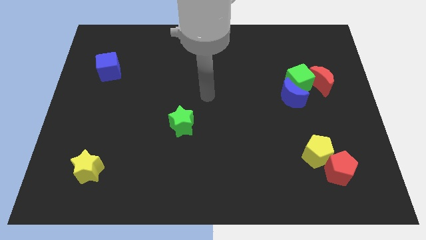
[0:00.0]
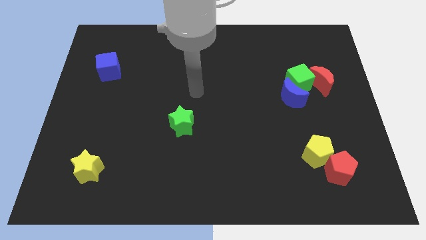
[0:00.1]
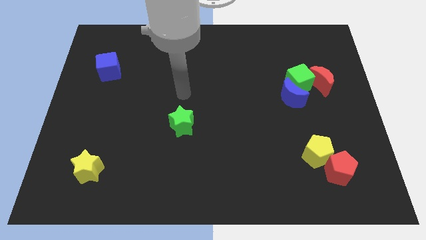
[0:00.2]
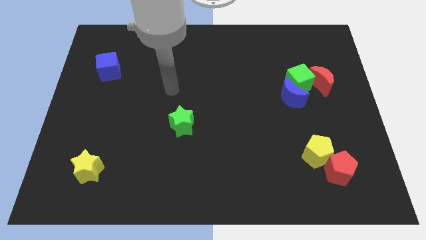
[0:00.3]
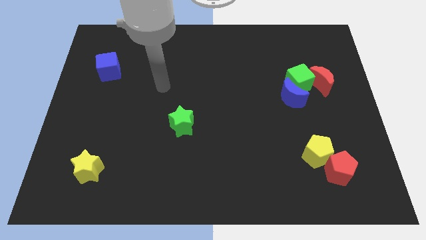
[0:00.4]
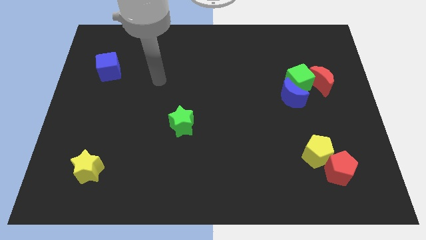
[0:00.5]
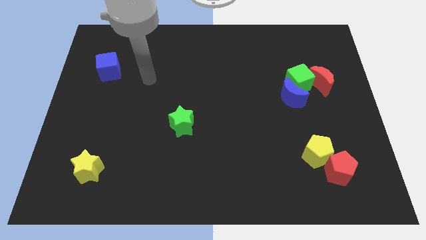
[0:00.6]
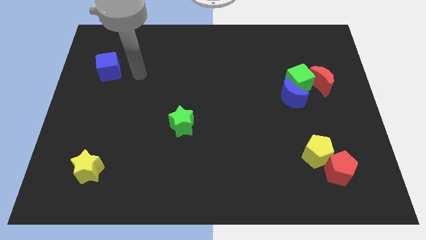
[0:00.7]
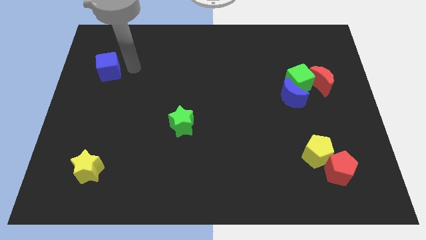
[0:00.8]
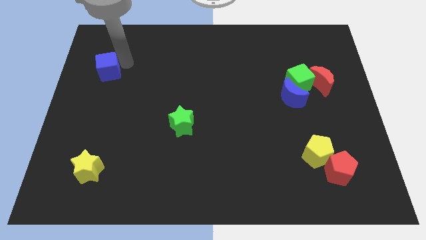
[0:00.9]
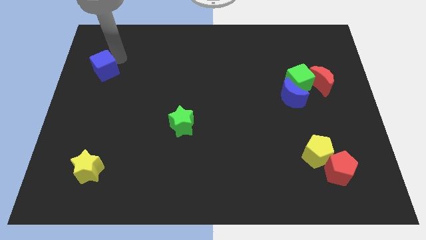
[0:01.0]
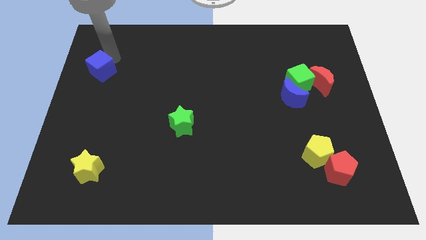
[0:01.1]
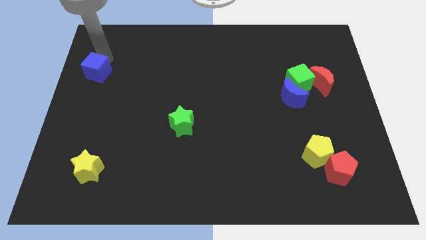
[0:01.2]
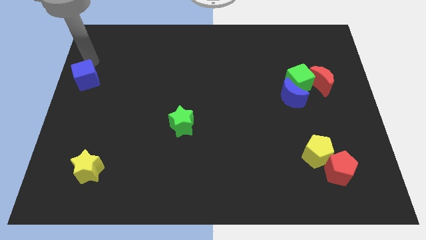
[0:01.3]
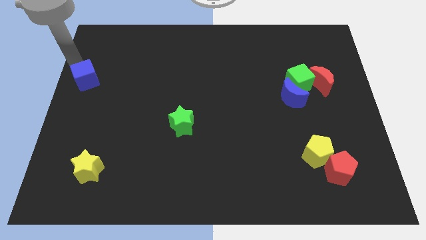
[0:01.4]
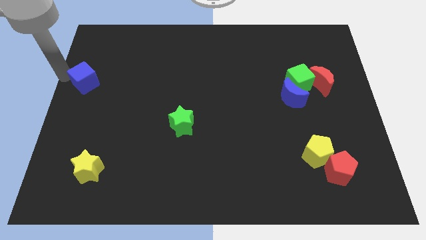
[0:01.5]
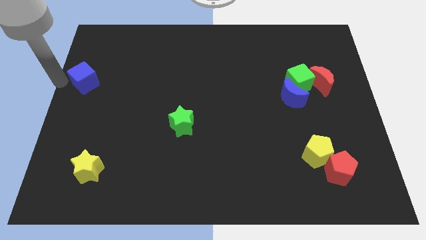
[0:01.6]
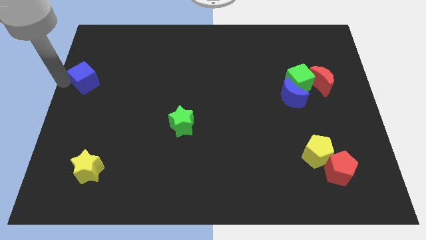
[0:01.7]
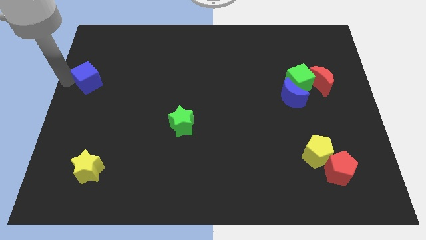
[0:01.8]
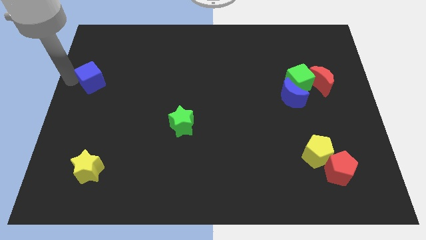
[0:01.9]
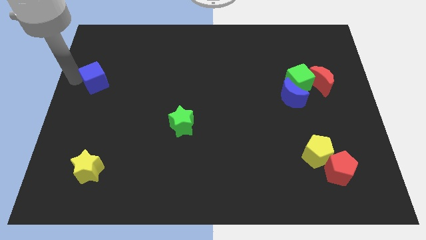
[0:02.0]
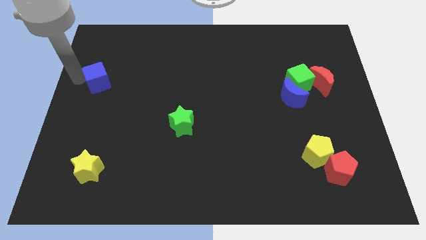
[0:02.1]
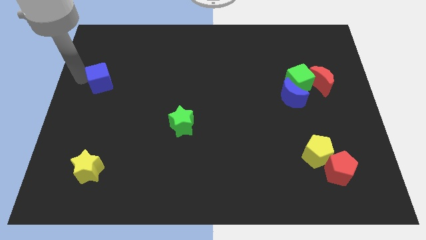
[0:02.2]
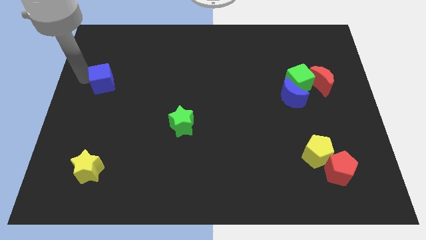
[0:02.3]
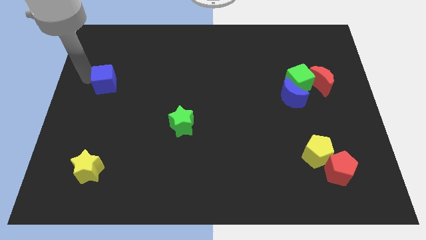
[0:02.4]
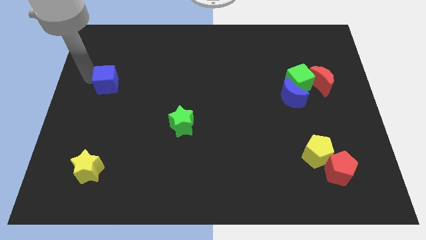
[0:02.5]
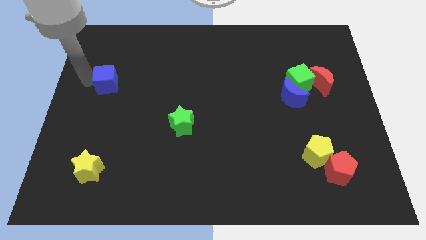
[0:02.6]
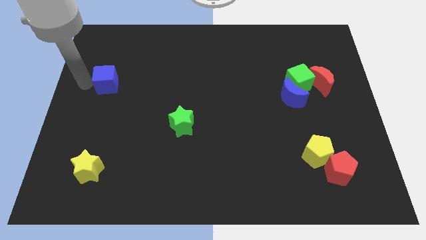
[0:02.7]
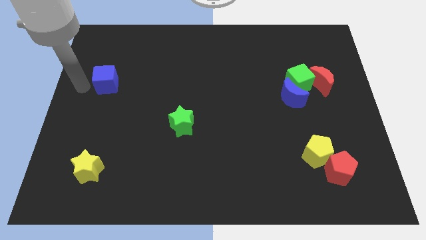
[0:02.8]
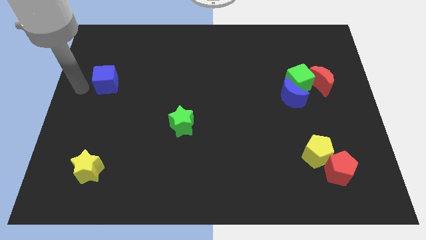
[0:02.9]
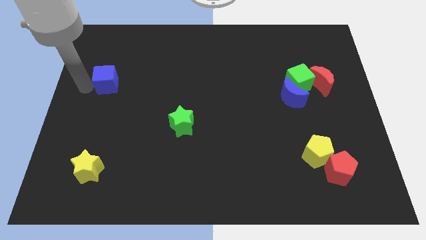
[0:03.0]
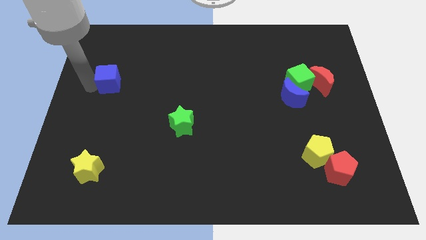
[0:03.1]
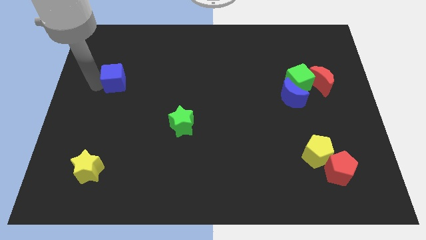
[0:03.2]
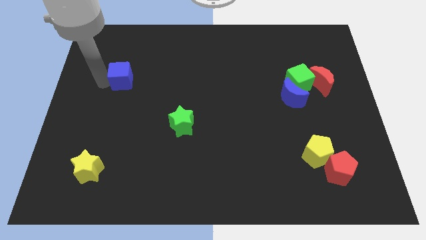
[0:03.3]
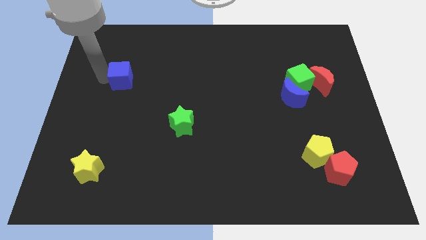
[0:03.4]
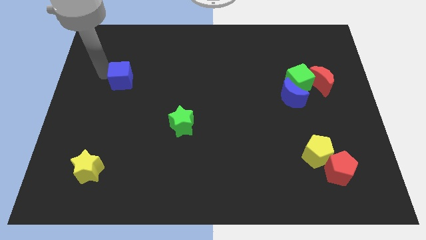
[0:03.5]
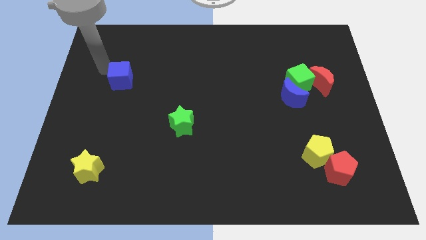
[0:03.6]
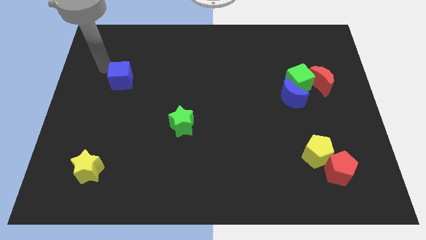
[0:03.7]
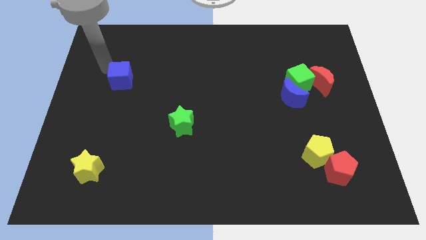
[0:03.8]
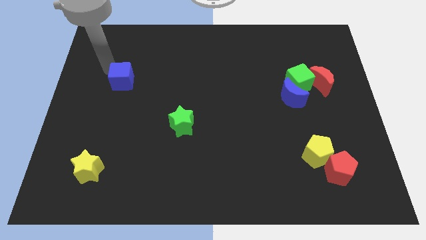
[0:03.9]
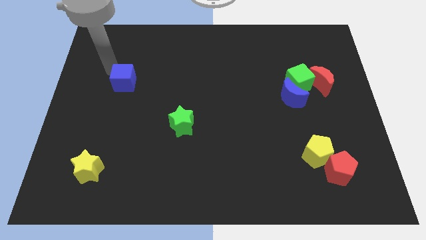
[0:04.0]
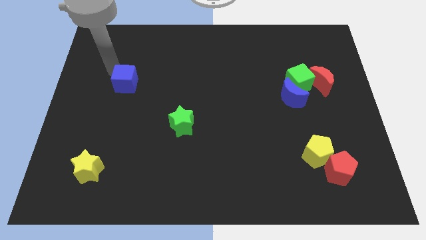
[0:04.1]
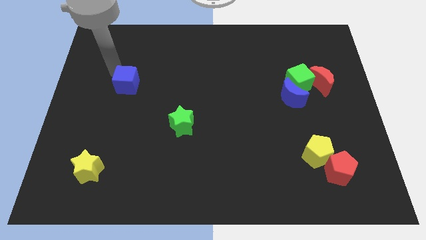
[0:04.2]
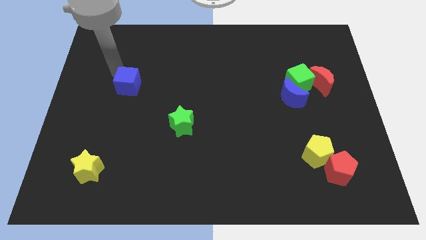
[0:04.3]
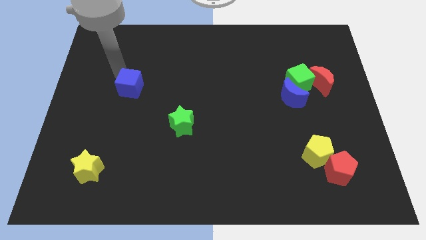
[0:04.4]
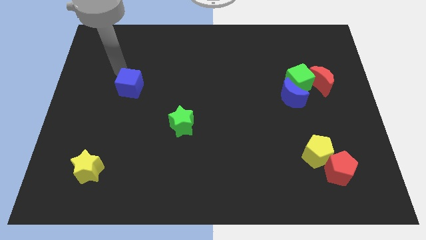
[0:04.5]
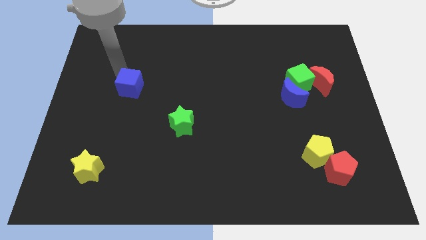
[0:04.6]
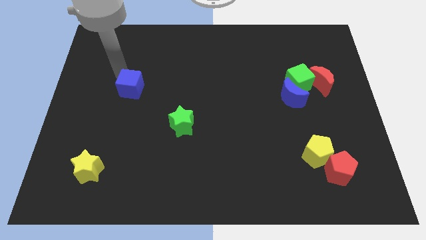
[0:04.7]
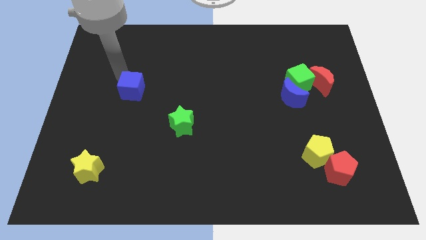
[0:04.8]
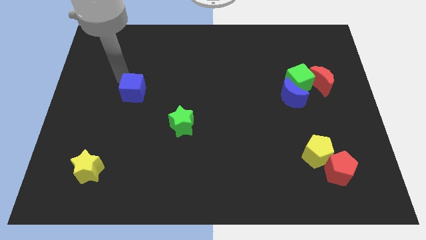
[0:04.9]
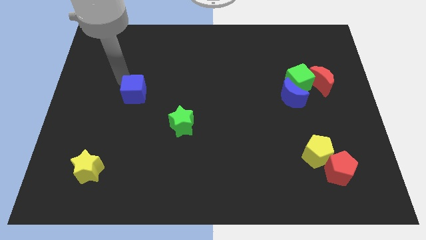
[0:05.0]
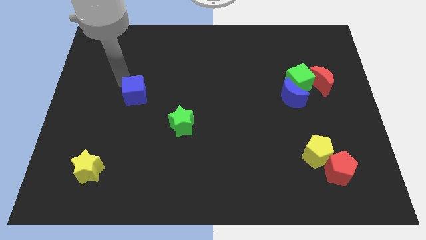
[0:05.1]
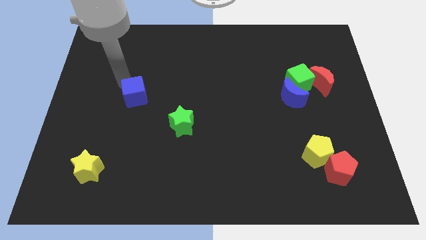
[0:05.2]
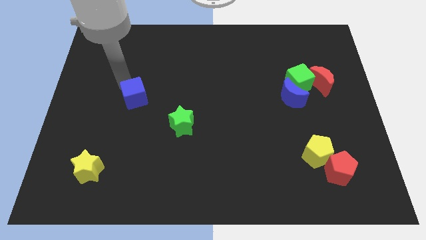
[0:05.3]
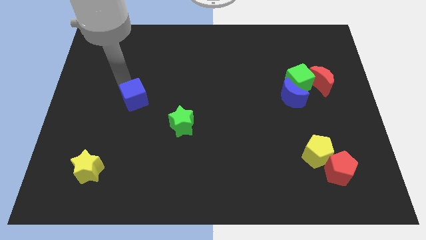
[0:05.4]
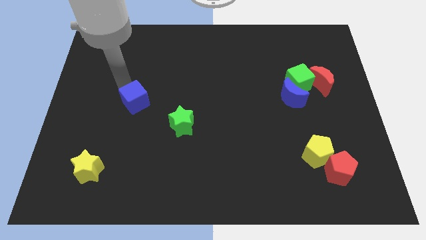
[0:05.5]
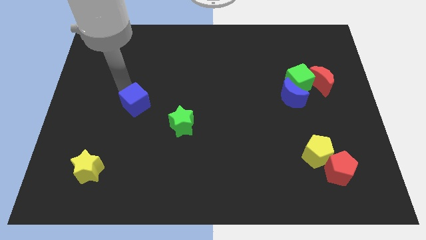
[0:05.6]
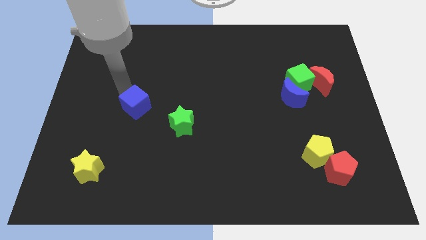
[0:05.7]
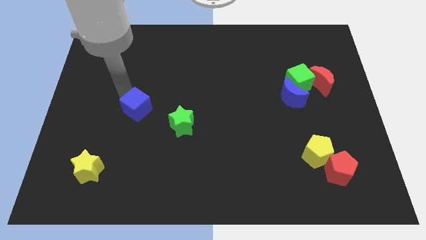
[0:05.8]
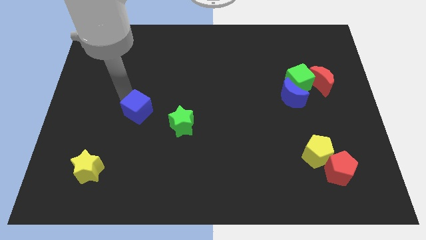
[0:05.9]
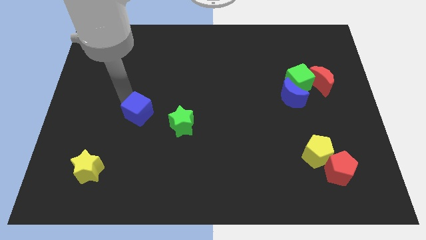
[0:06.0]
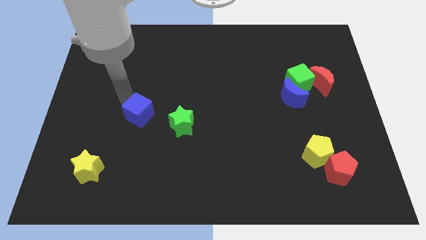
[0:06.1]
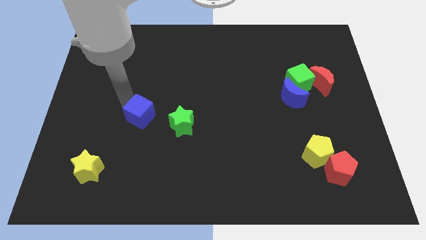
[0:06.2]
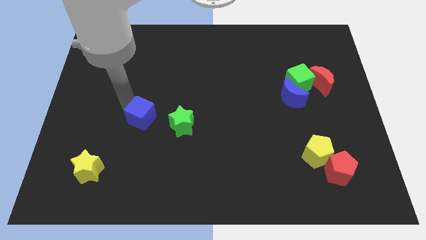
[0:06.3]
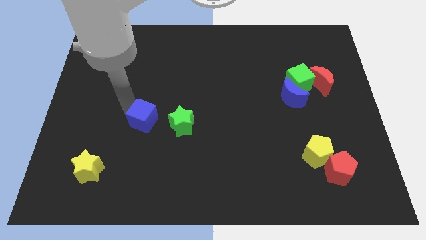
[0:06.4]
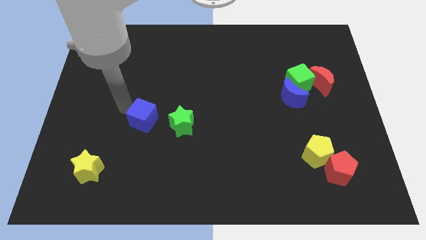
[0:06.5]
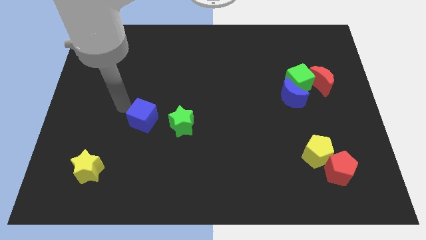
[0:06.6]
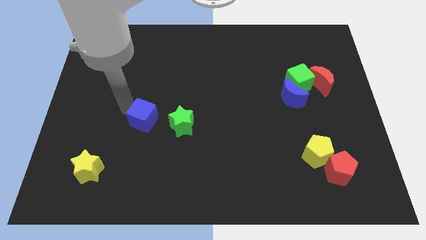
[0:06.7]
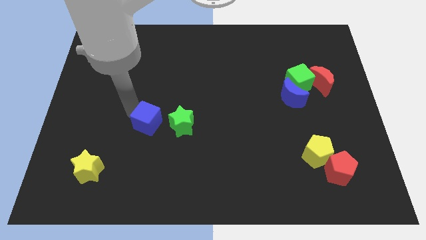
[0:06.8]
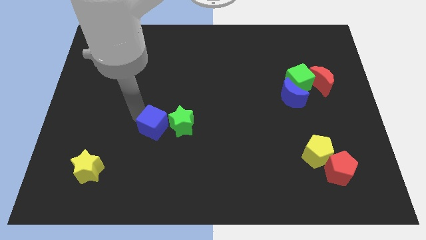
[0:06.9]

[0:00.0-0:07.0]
move the blue cube down and then to the right
